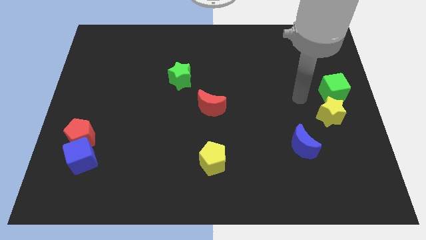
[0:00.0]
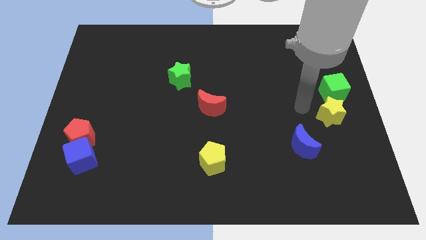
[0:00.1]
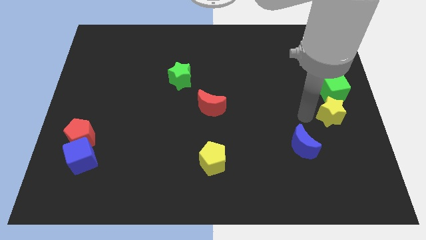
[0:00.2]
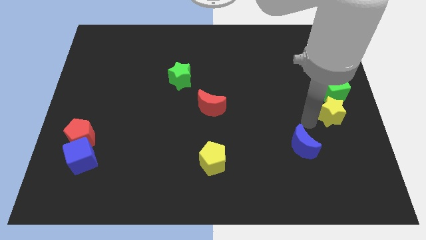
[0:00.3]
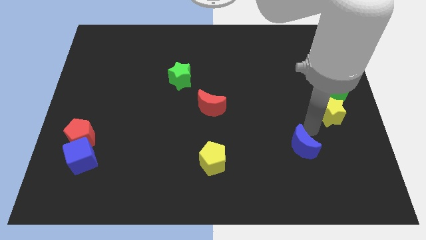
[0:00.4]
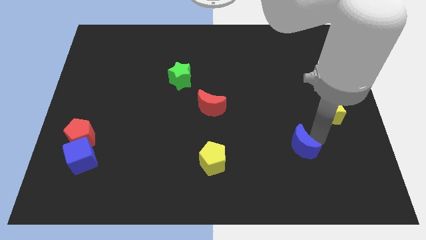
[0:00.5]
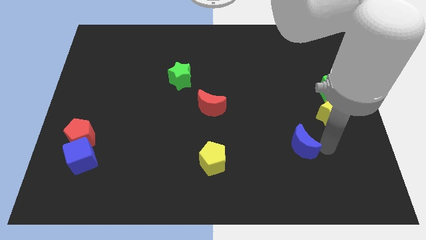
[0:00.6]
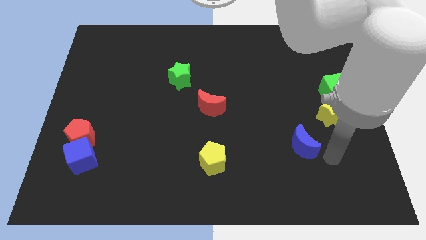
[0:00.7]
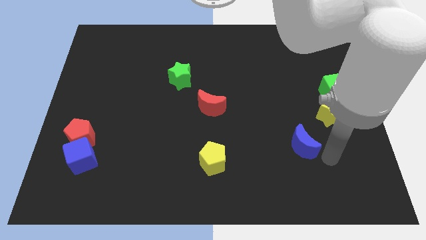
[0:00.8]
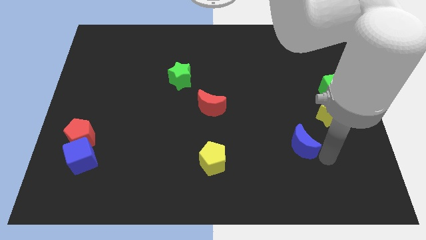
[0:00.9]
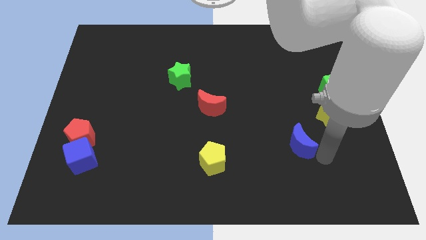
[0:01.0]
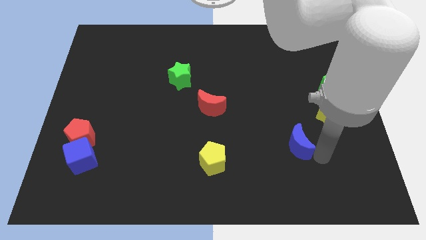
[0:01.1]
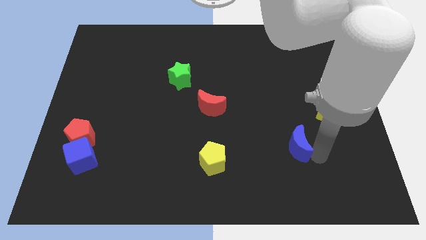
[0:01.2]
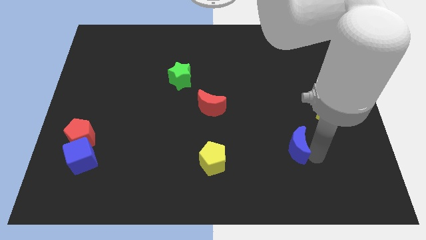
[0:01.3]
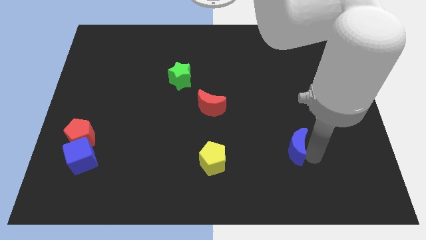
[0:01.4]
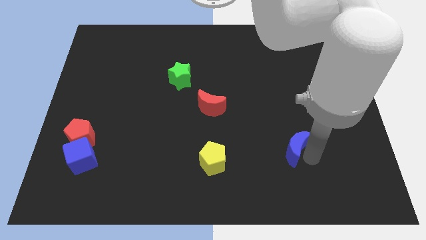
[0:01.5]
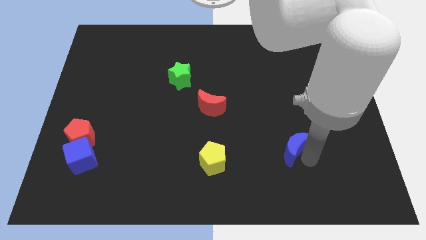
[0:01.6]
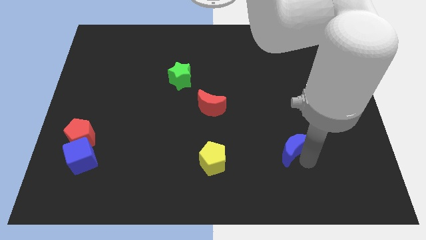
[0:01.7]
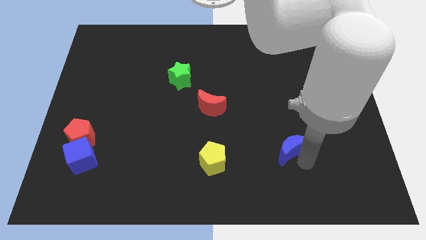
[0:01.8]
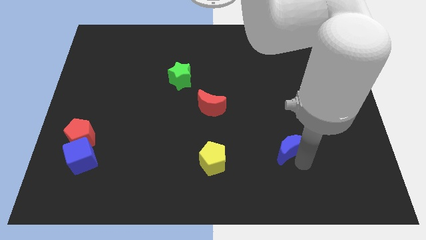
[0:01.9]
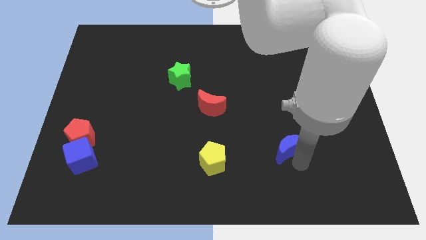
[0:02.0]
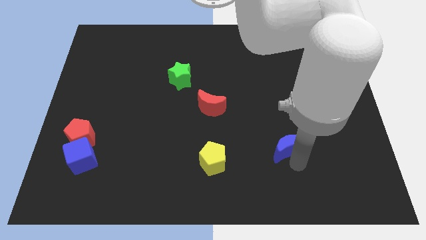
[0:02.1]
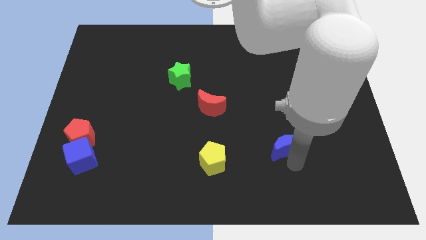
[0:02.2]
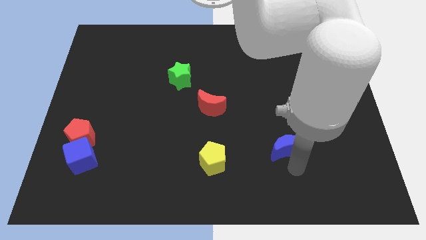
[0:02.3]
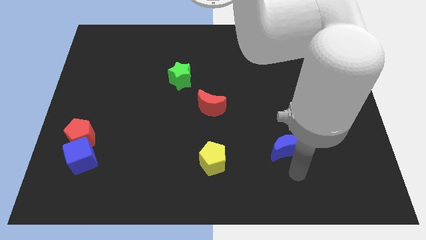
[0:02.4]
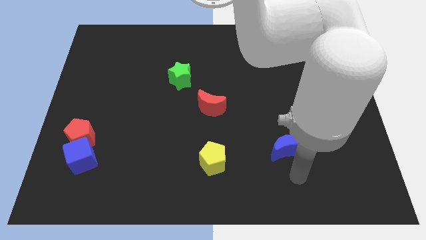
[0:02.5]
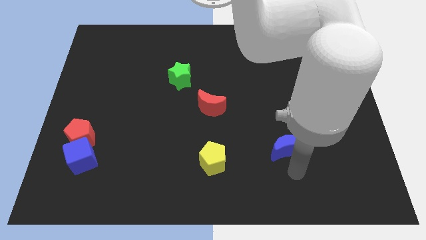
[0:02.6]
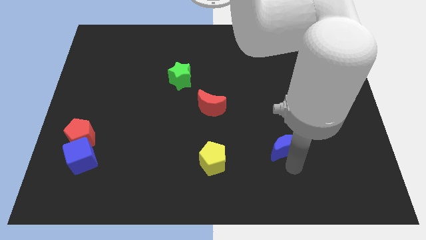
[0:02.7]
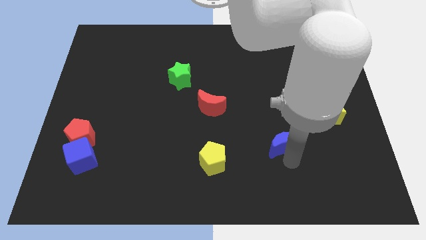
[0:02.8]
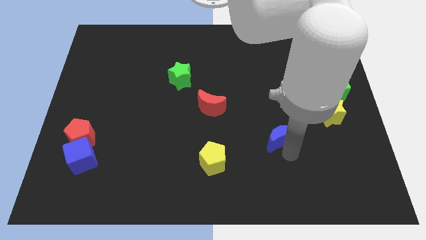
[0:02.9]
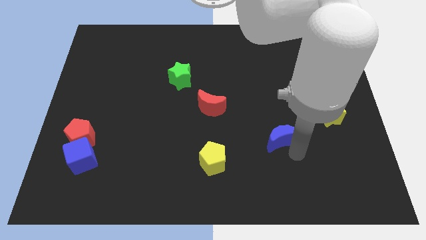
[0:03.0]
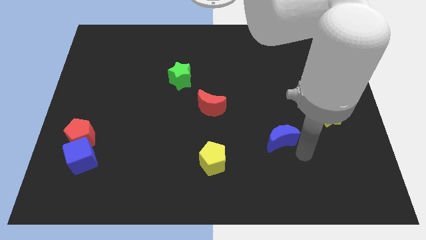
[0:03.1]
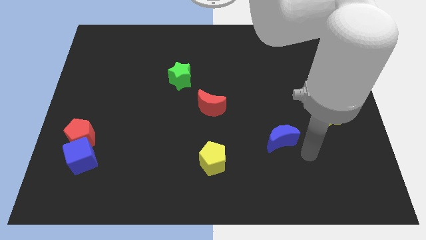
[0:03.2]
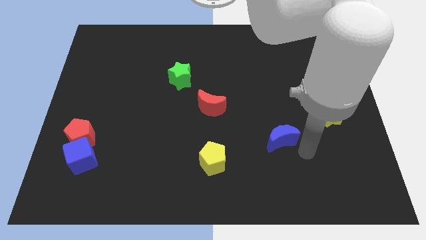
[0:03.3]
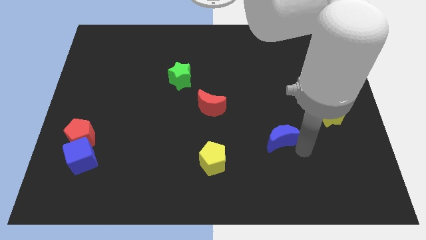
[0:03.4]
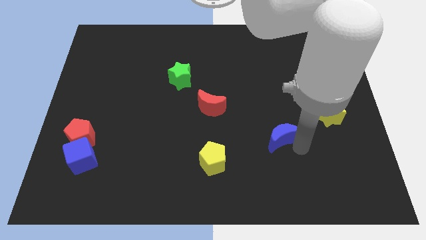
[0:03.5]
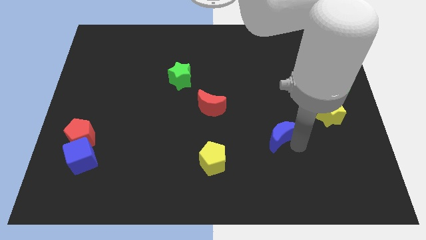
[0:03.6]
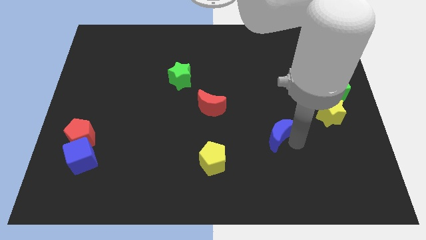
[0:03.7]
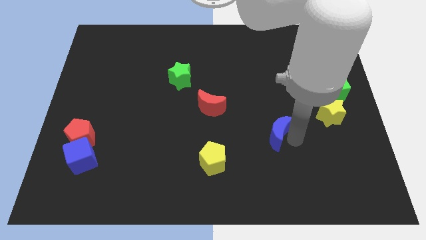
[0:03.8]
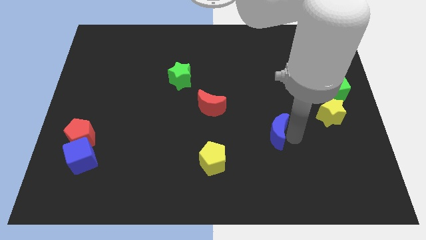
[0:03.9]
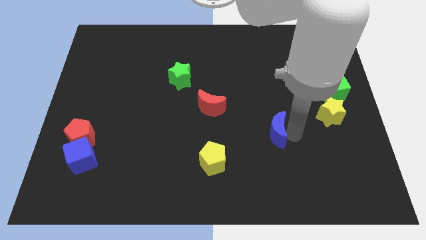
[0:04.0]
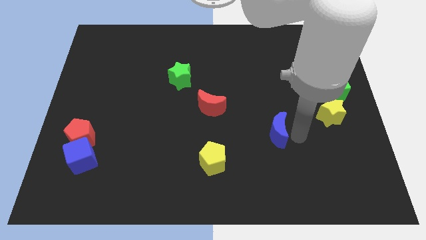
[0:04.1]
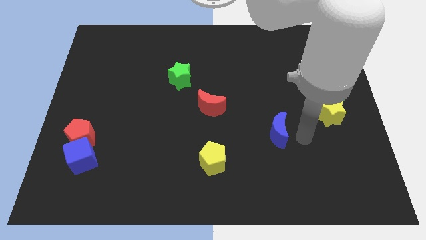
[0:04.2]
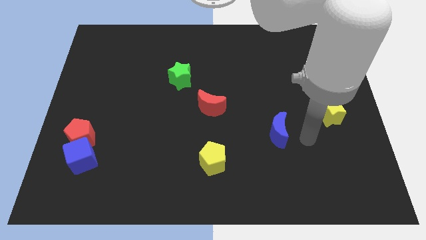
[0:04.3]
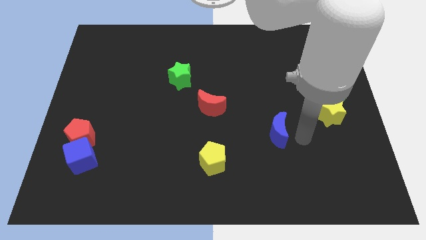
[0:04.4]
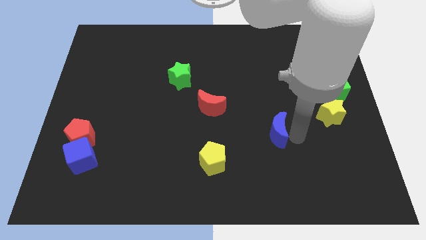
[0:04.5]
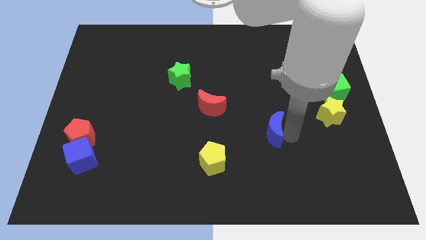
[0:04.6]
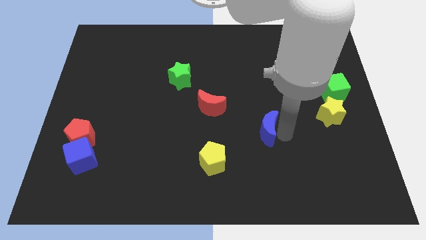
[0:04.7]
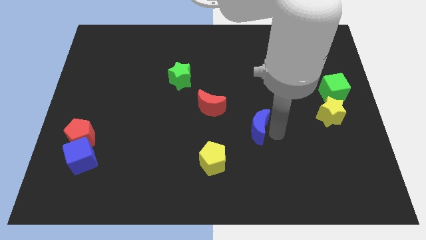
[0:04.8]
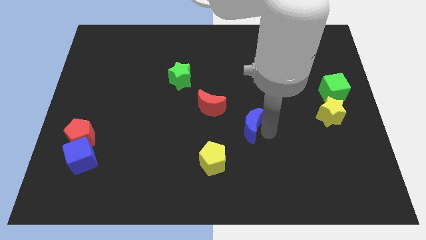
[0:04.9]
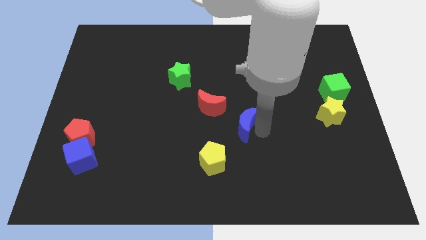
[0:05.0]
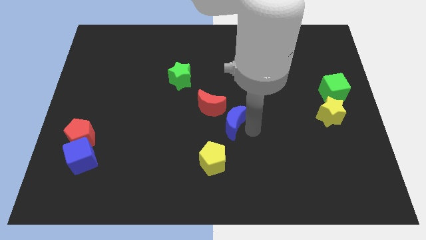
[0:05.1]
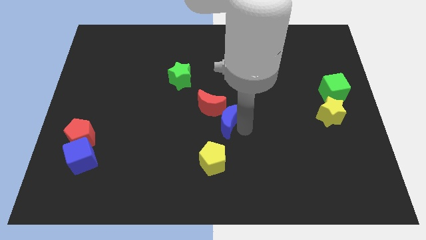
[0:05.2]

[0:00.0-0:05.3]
slide the blue moon towards the red moon

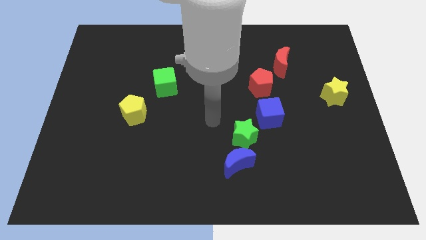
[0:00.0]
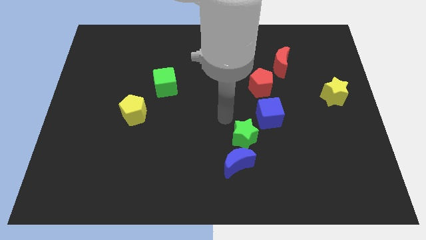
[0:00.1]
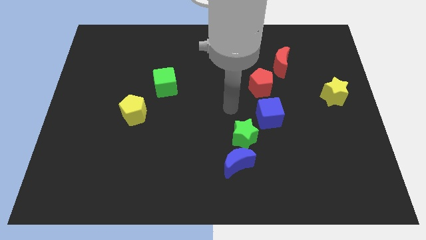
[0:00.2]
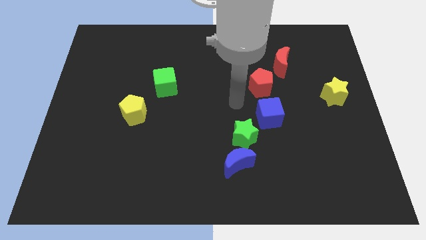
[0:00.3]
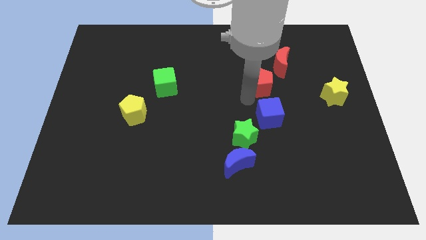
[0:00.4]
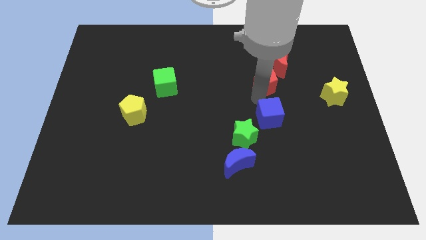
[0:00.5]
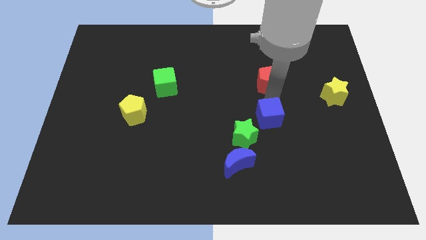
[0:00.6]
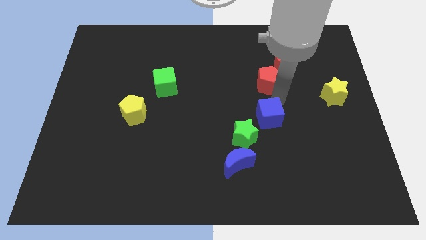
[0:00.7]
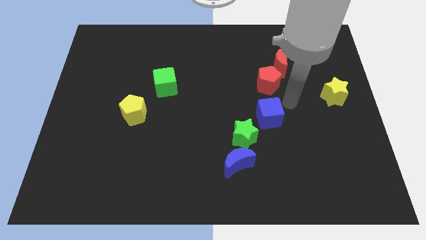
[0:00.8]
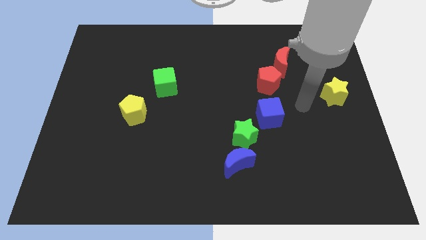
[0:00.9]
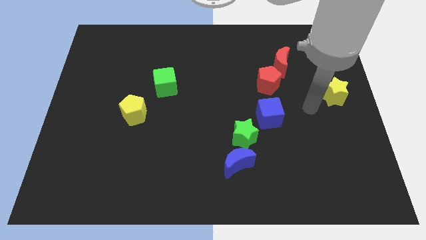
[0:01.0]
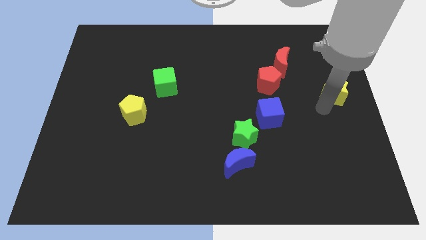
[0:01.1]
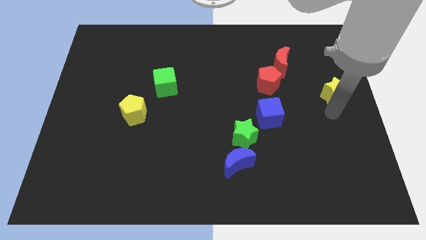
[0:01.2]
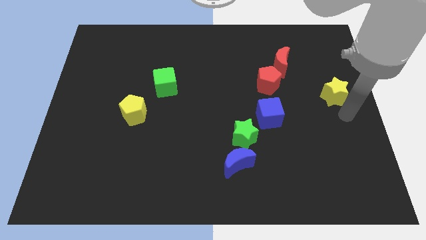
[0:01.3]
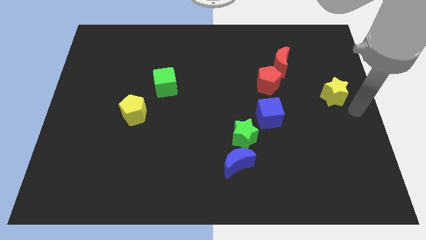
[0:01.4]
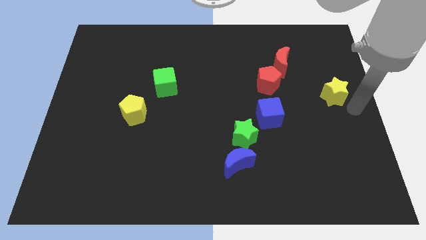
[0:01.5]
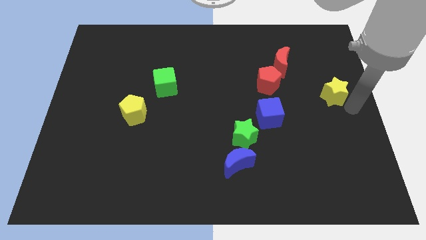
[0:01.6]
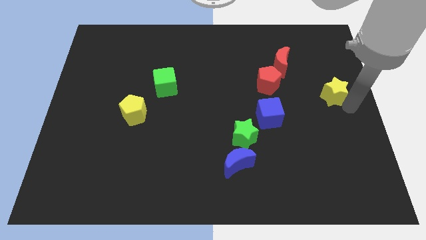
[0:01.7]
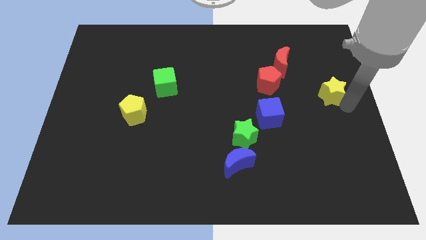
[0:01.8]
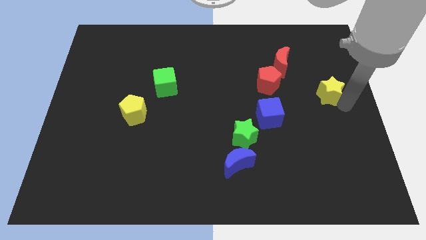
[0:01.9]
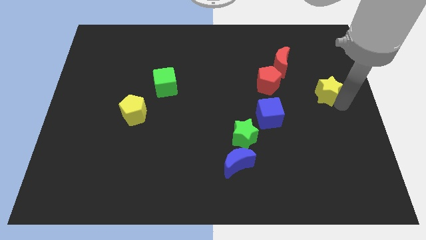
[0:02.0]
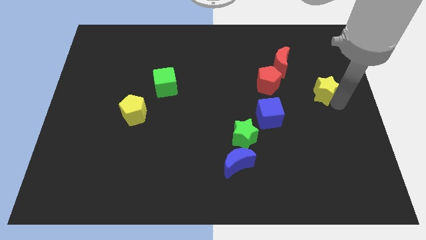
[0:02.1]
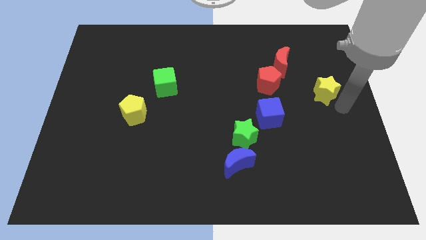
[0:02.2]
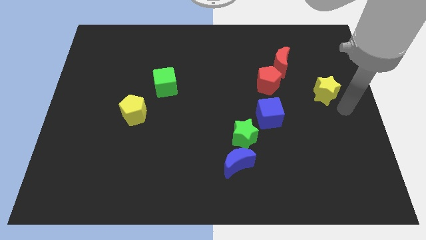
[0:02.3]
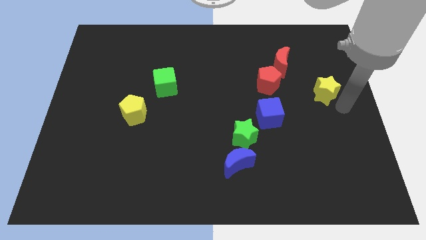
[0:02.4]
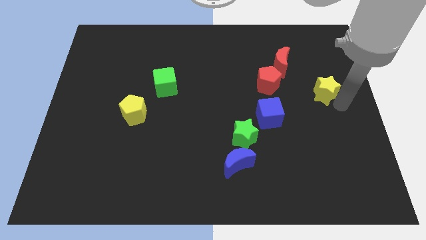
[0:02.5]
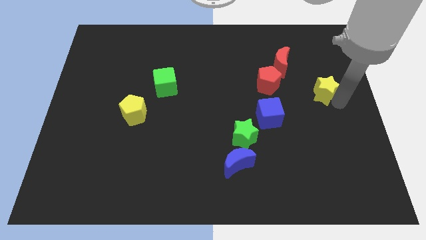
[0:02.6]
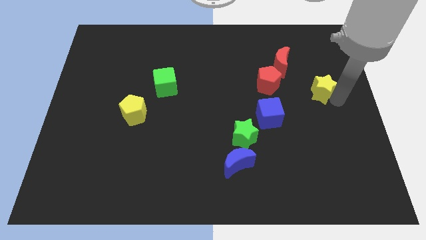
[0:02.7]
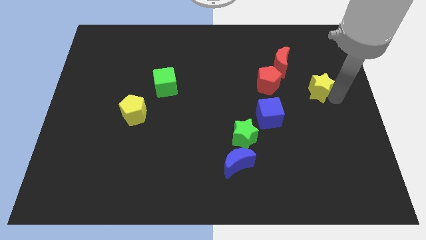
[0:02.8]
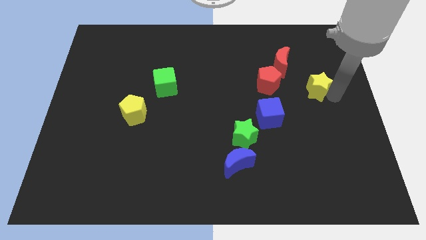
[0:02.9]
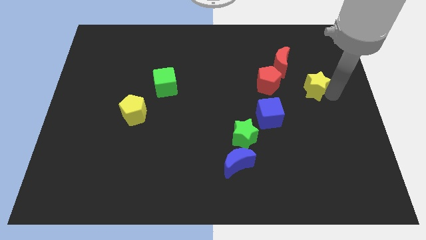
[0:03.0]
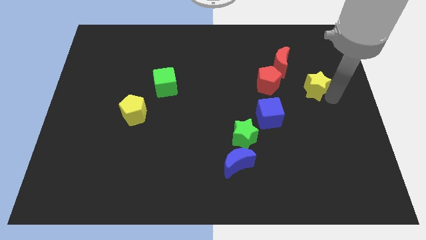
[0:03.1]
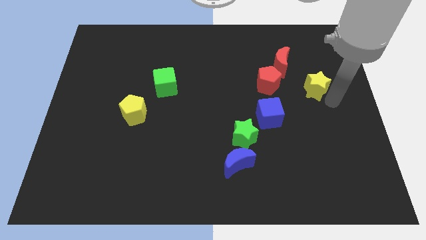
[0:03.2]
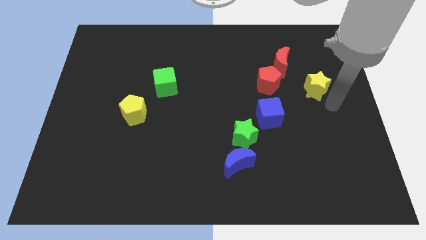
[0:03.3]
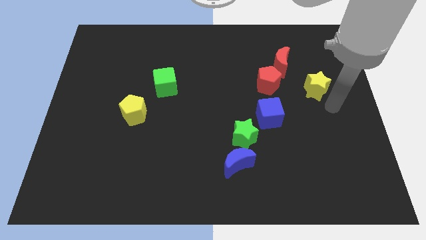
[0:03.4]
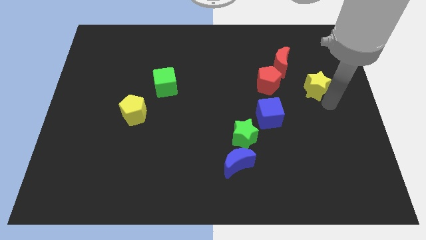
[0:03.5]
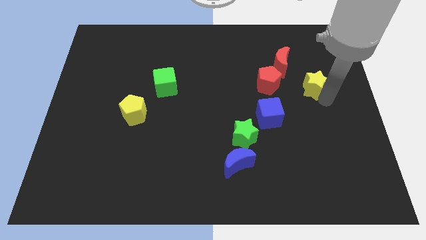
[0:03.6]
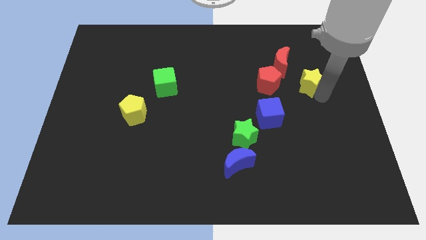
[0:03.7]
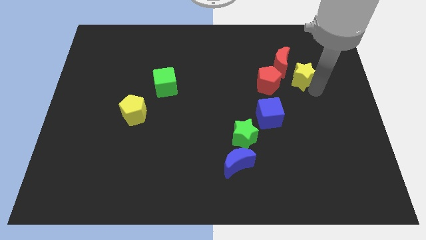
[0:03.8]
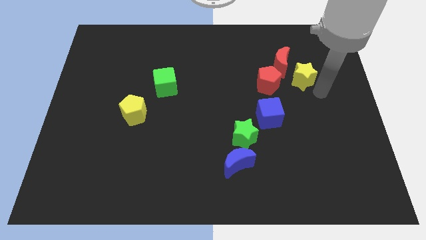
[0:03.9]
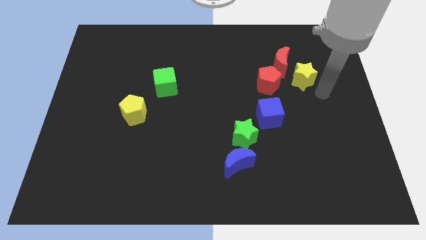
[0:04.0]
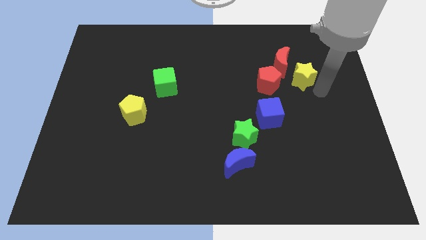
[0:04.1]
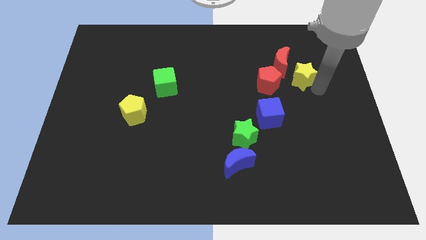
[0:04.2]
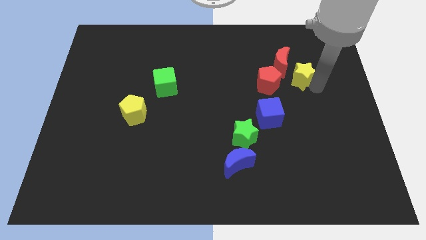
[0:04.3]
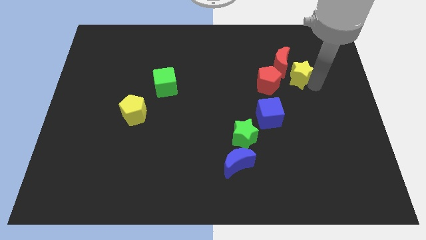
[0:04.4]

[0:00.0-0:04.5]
move the yellow star towards the red moon
